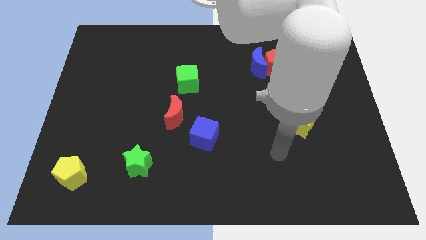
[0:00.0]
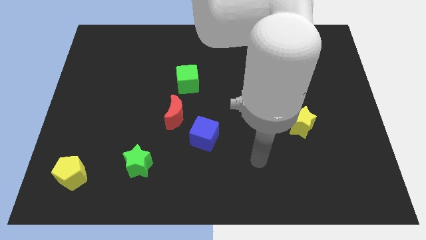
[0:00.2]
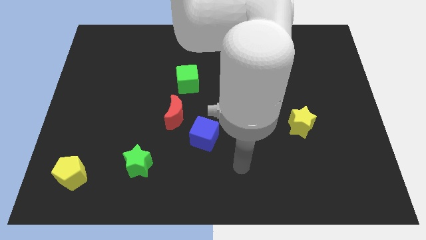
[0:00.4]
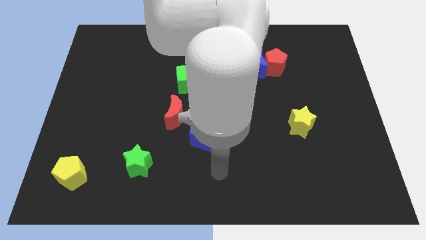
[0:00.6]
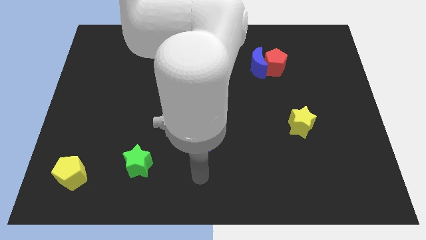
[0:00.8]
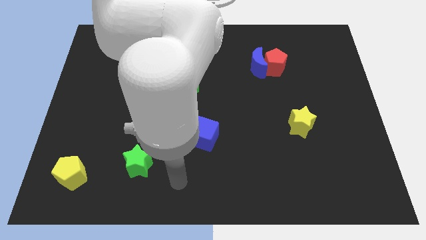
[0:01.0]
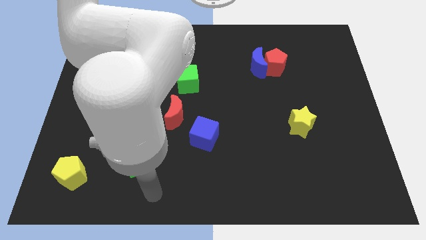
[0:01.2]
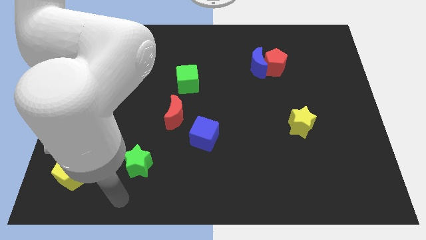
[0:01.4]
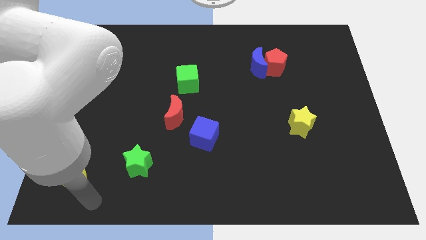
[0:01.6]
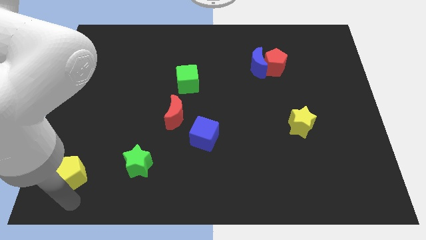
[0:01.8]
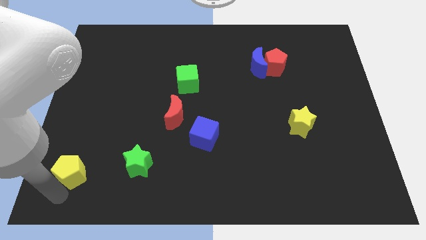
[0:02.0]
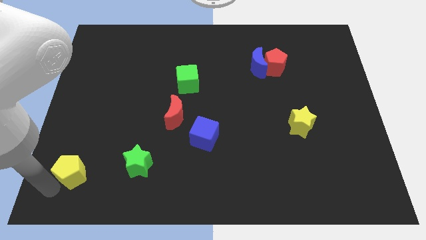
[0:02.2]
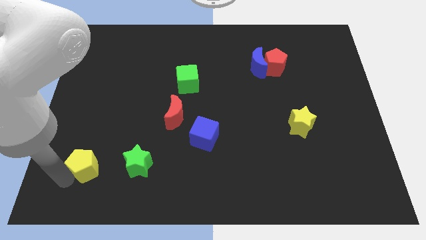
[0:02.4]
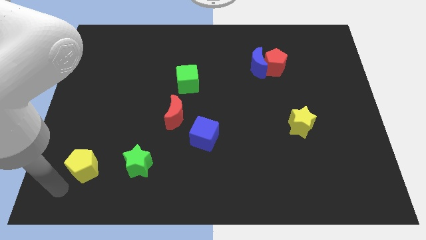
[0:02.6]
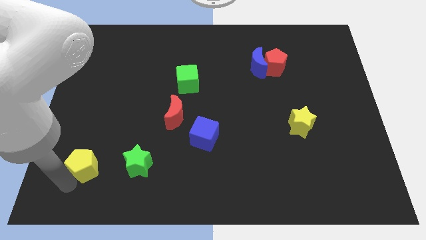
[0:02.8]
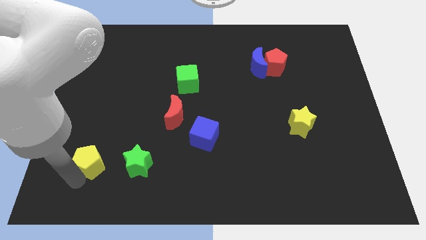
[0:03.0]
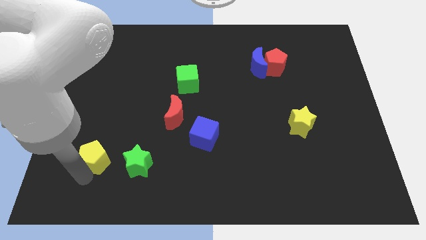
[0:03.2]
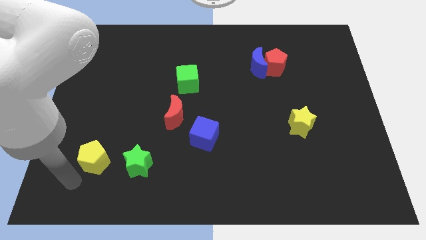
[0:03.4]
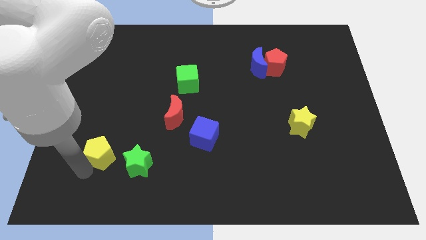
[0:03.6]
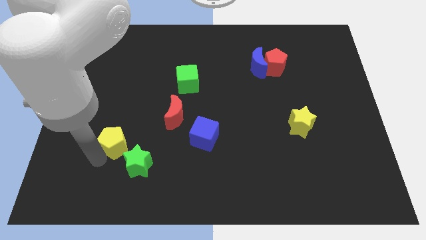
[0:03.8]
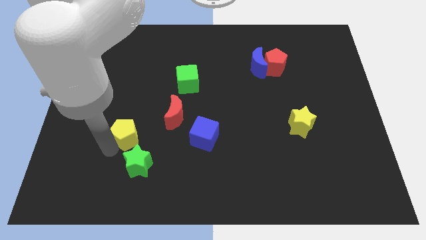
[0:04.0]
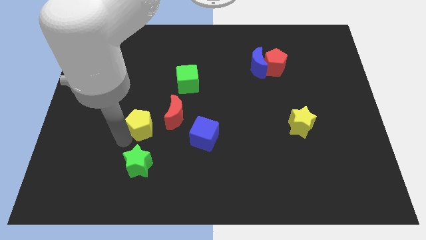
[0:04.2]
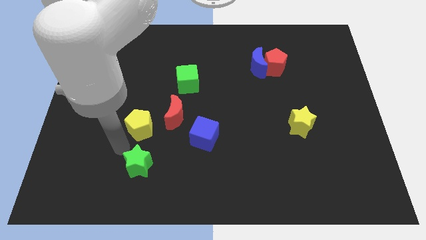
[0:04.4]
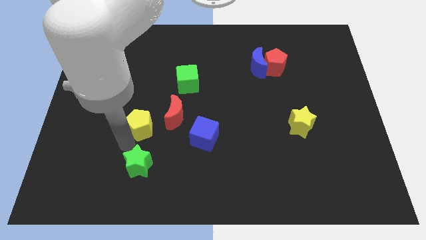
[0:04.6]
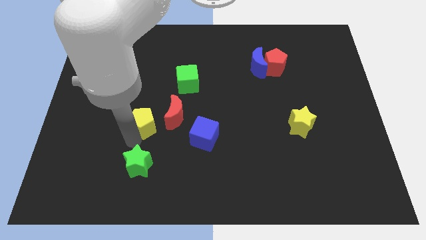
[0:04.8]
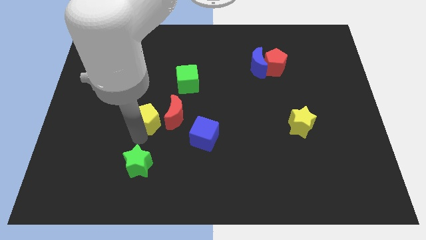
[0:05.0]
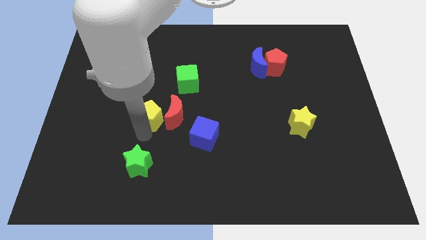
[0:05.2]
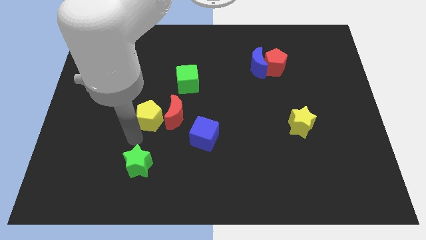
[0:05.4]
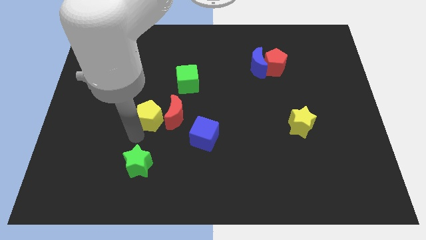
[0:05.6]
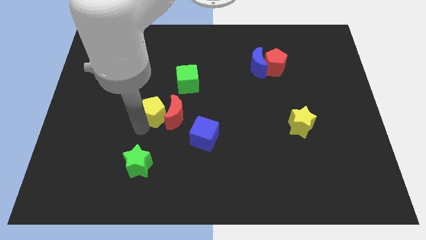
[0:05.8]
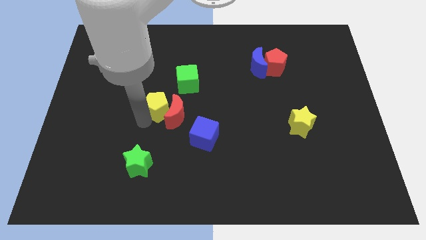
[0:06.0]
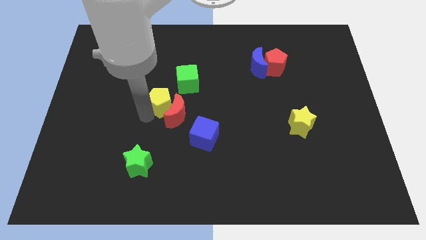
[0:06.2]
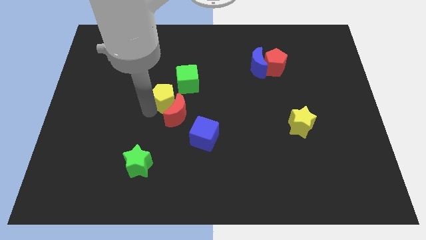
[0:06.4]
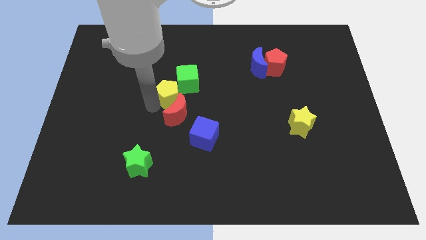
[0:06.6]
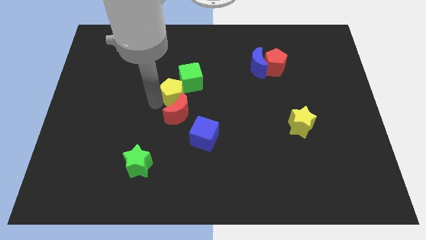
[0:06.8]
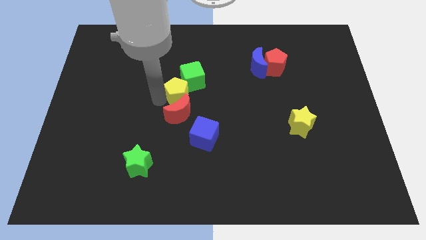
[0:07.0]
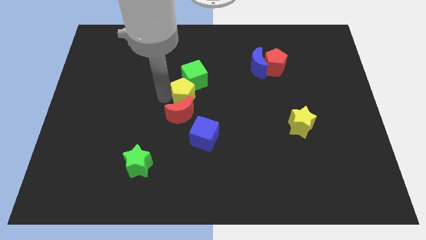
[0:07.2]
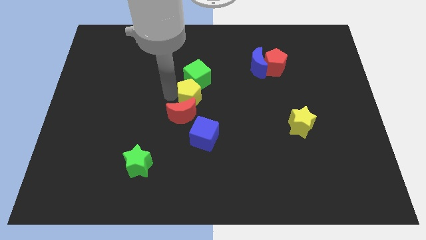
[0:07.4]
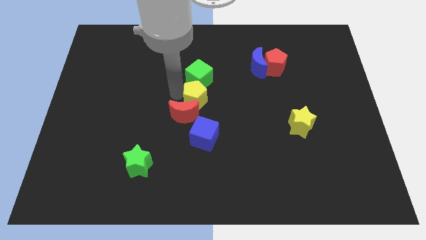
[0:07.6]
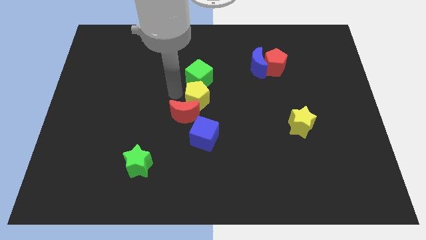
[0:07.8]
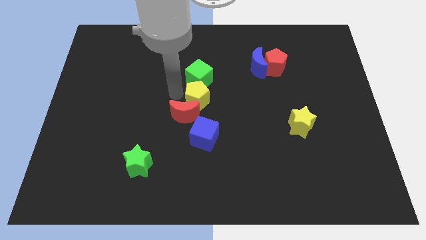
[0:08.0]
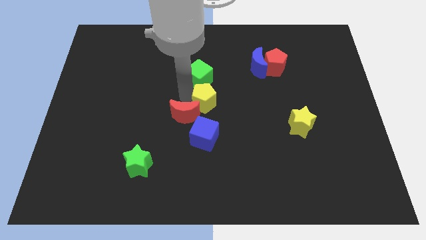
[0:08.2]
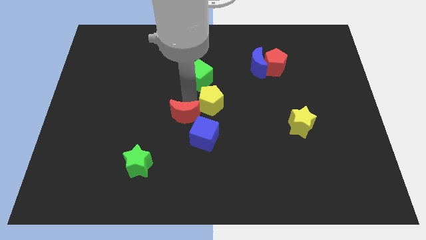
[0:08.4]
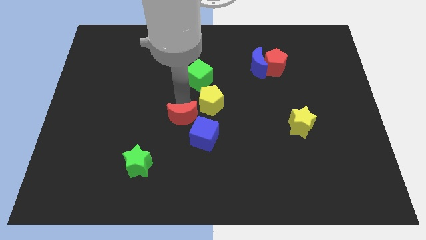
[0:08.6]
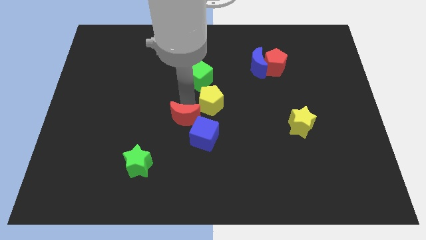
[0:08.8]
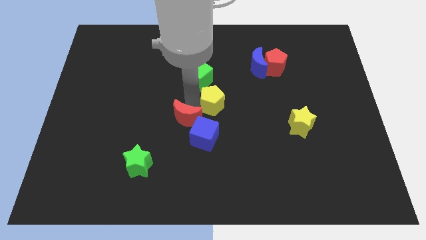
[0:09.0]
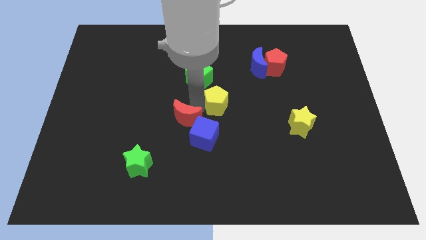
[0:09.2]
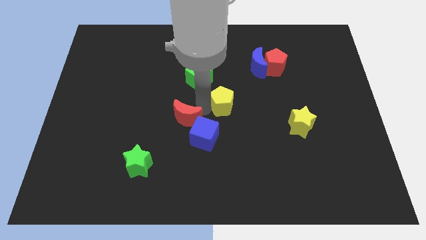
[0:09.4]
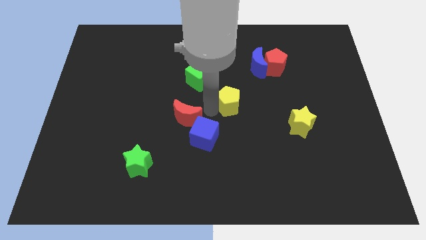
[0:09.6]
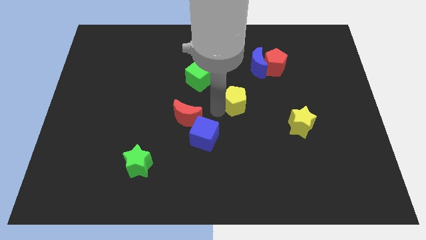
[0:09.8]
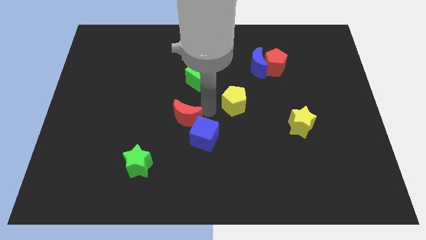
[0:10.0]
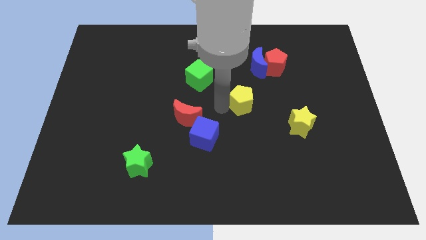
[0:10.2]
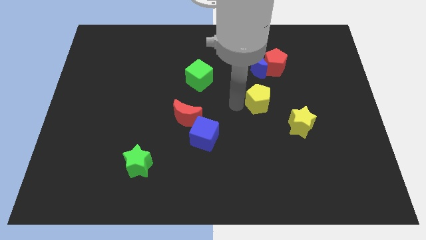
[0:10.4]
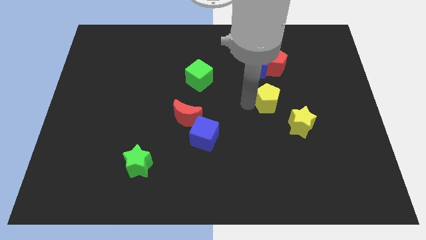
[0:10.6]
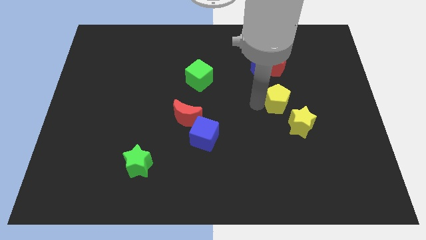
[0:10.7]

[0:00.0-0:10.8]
push the yellow pentagon to the top of the yellow star
